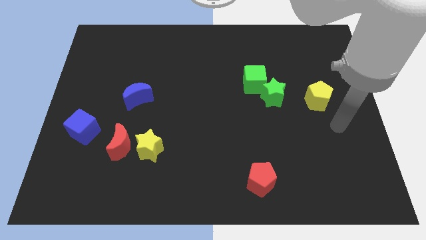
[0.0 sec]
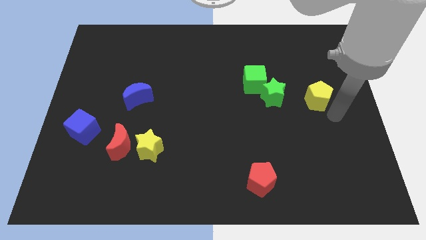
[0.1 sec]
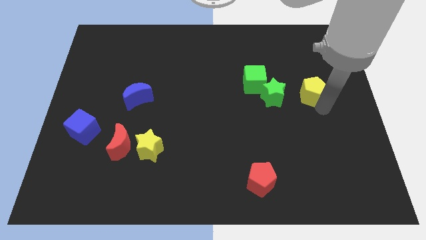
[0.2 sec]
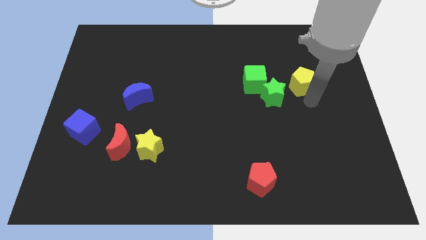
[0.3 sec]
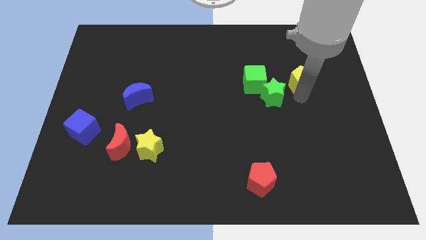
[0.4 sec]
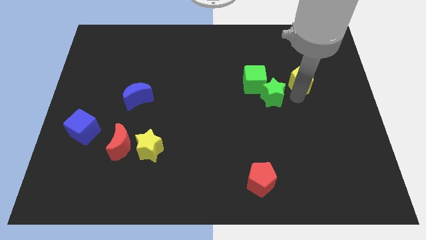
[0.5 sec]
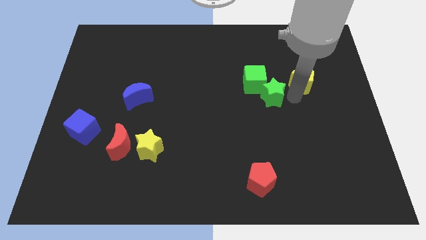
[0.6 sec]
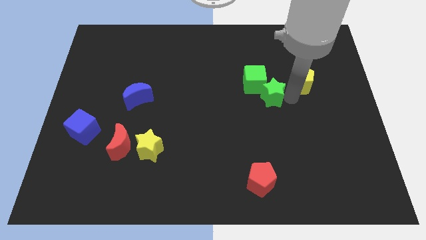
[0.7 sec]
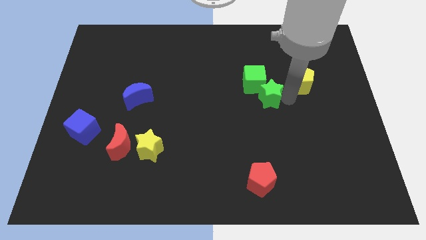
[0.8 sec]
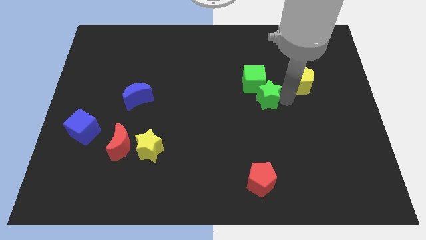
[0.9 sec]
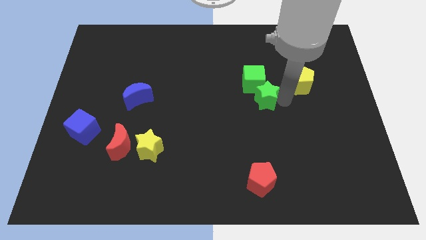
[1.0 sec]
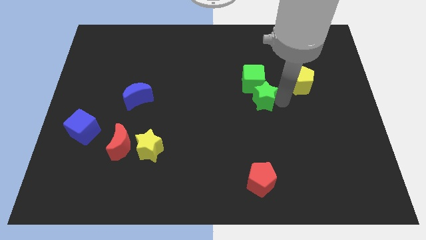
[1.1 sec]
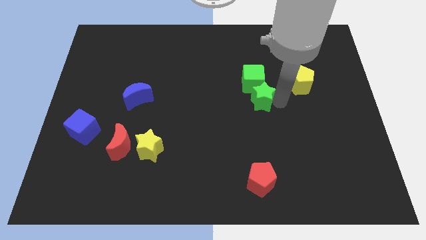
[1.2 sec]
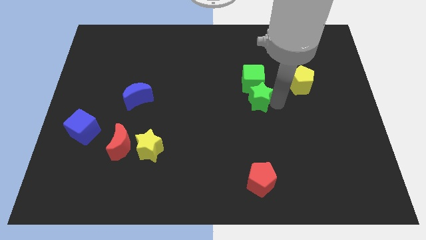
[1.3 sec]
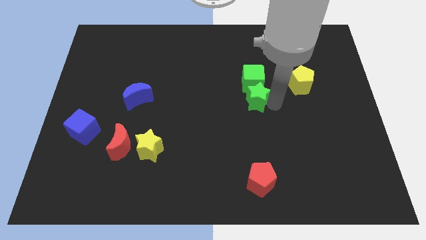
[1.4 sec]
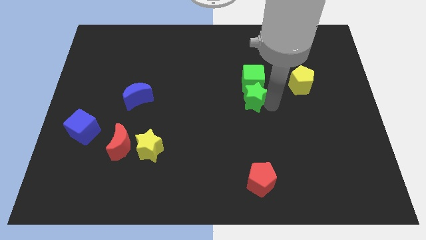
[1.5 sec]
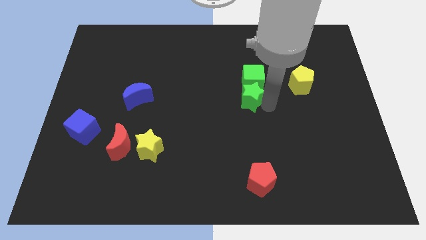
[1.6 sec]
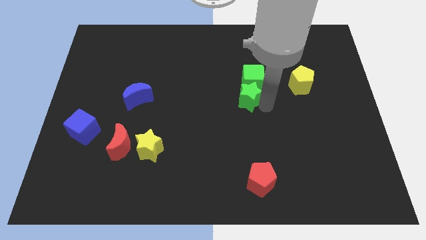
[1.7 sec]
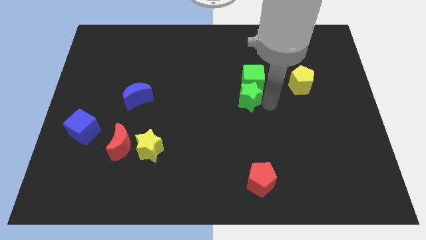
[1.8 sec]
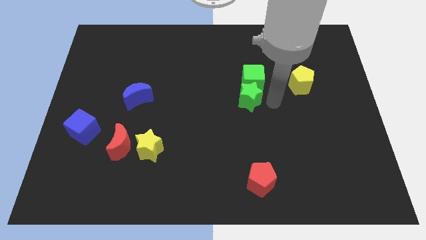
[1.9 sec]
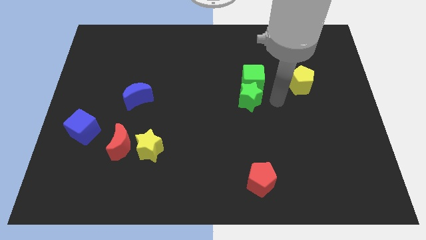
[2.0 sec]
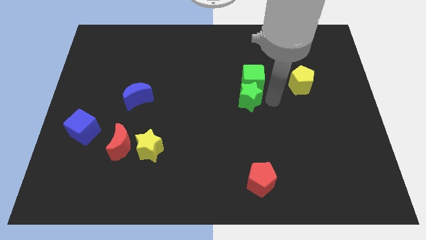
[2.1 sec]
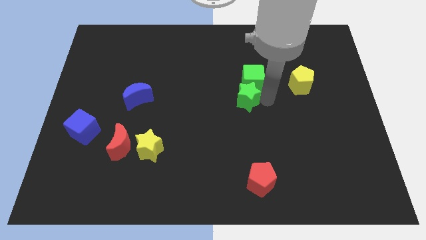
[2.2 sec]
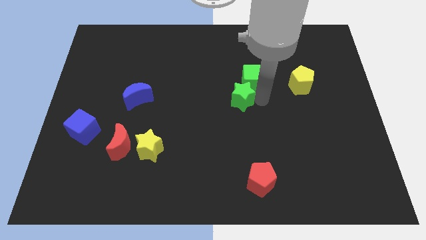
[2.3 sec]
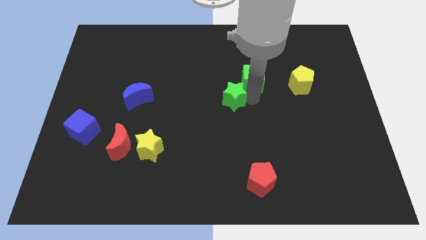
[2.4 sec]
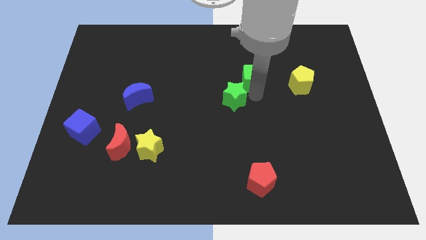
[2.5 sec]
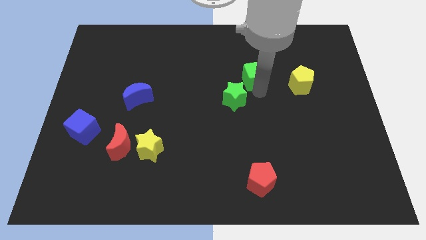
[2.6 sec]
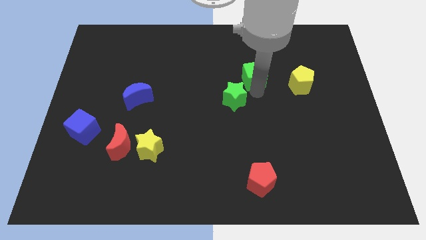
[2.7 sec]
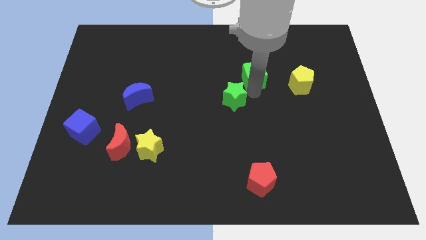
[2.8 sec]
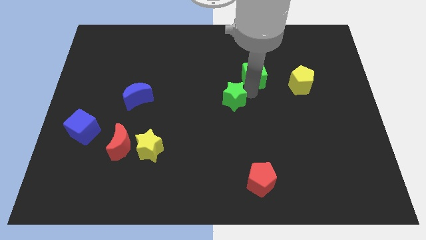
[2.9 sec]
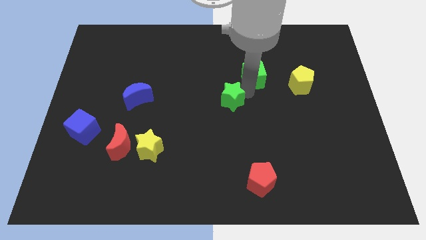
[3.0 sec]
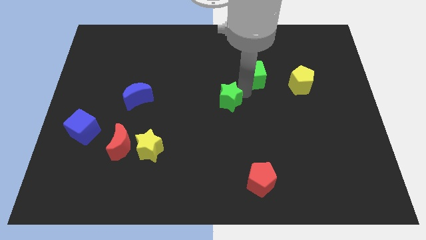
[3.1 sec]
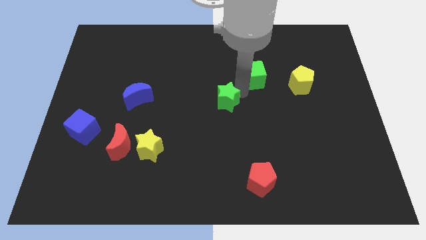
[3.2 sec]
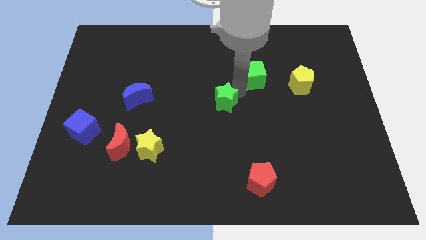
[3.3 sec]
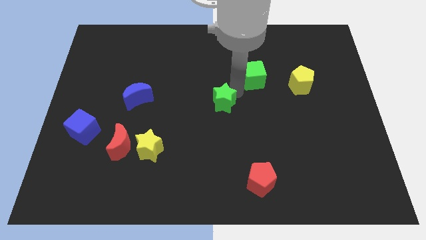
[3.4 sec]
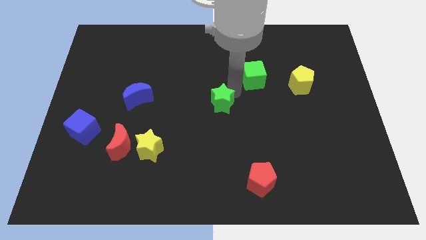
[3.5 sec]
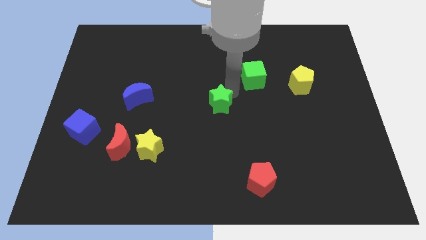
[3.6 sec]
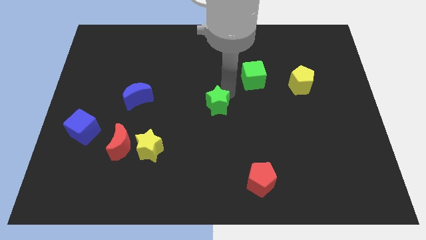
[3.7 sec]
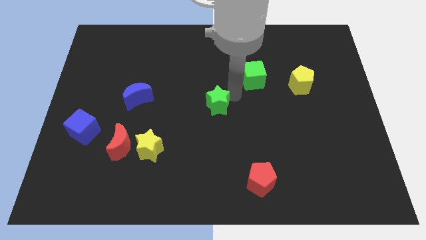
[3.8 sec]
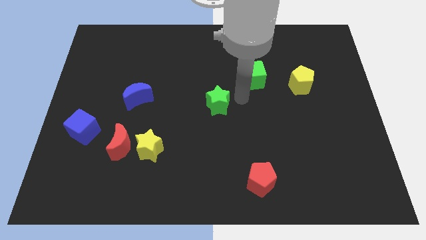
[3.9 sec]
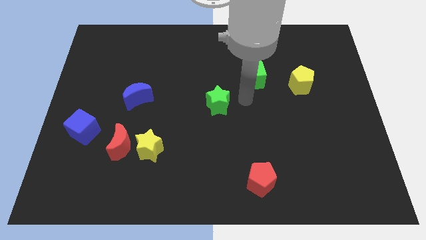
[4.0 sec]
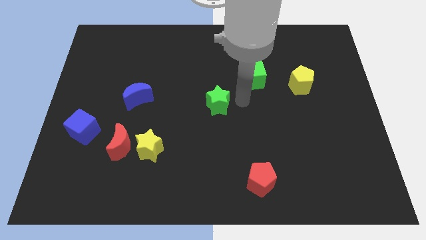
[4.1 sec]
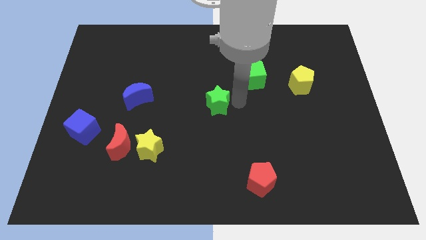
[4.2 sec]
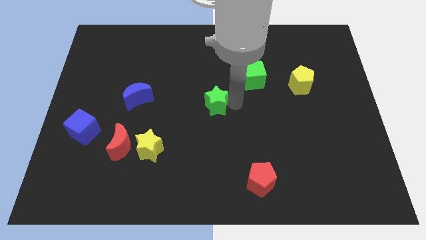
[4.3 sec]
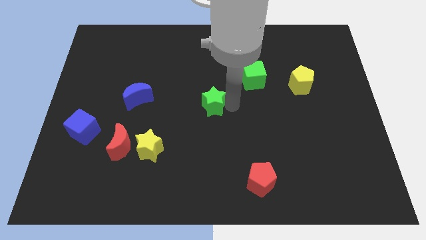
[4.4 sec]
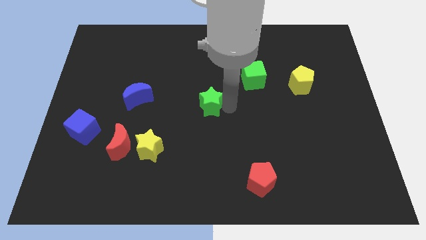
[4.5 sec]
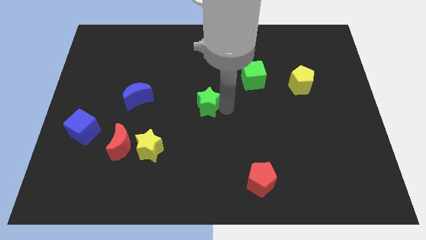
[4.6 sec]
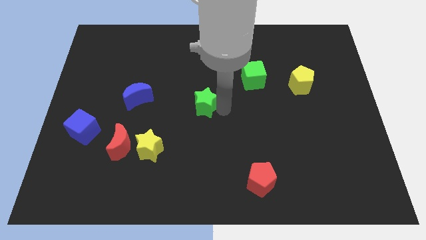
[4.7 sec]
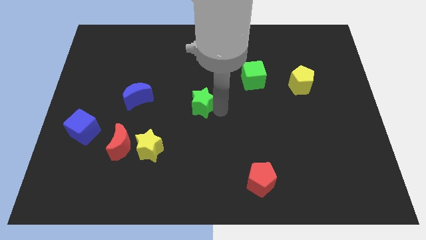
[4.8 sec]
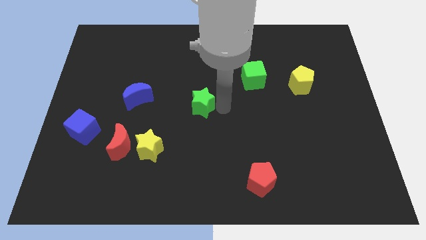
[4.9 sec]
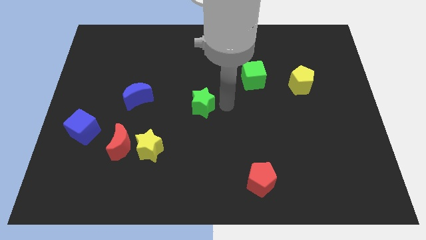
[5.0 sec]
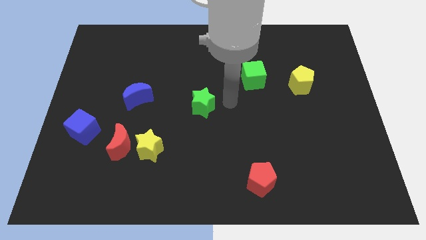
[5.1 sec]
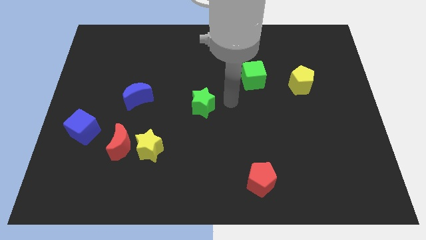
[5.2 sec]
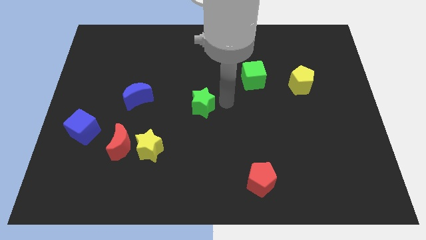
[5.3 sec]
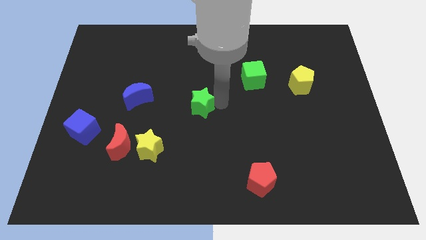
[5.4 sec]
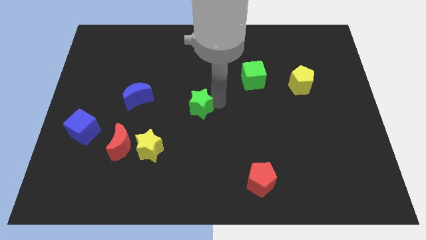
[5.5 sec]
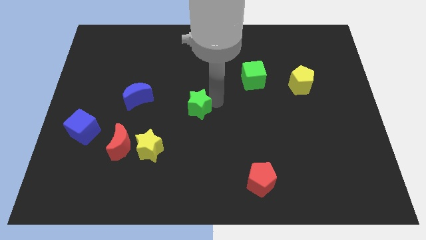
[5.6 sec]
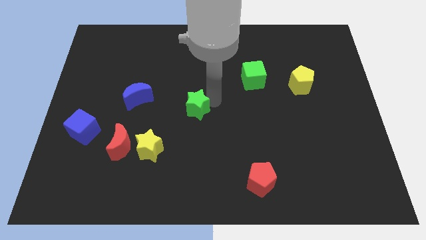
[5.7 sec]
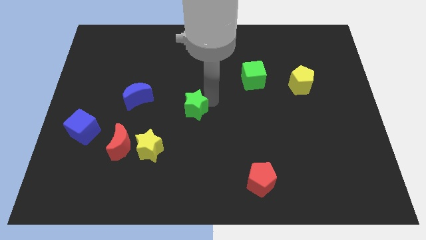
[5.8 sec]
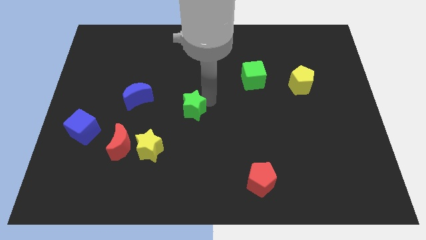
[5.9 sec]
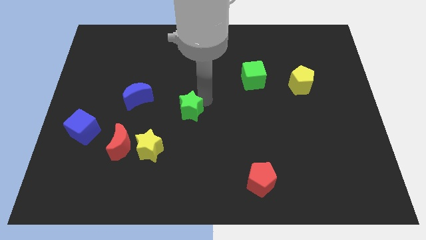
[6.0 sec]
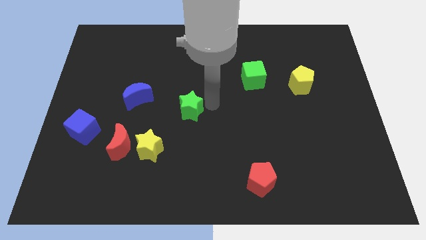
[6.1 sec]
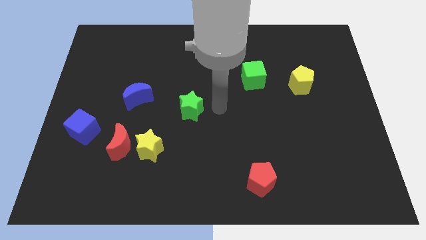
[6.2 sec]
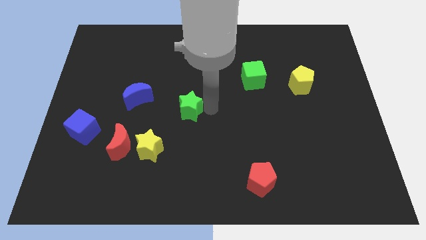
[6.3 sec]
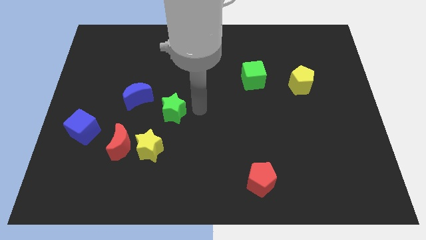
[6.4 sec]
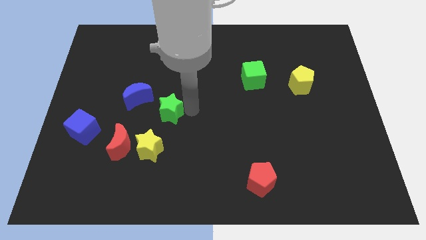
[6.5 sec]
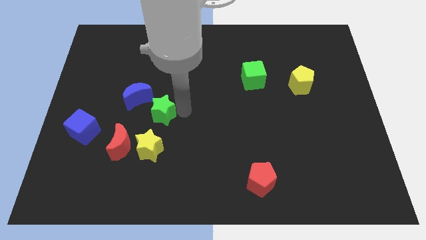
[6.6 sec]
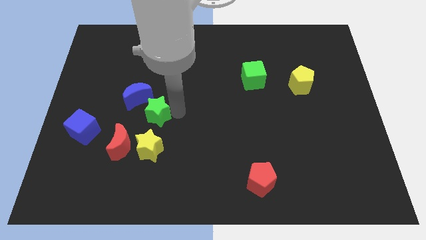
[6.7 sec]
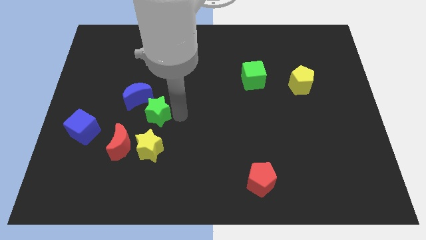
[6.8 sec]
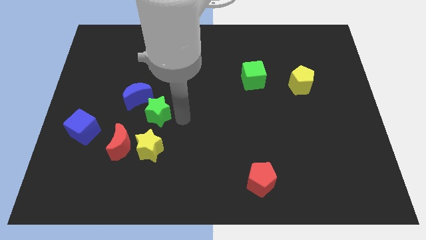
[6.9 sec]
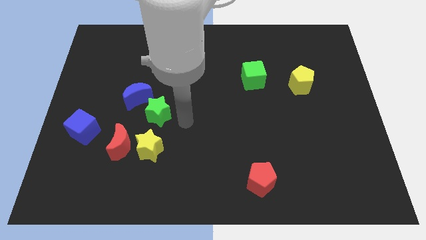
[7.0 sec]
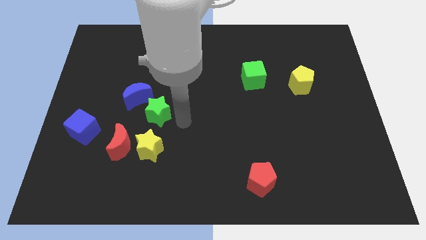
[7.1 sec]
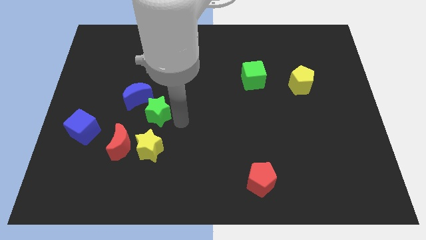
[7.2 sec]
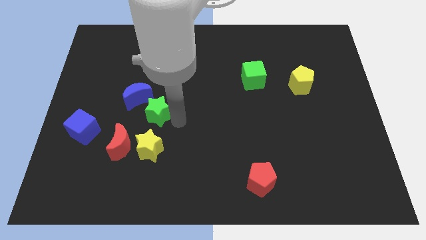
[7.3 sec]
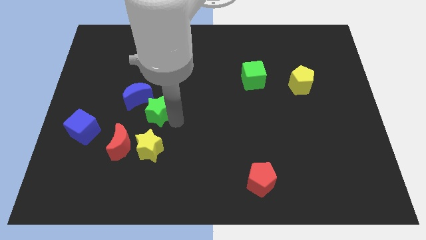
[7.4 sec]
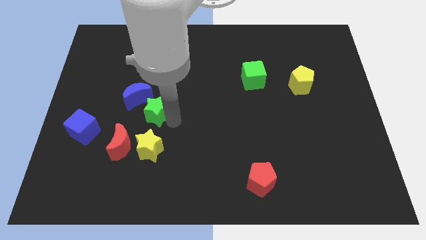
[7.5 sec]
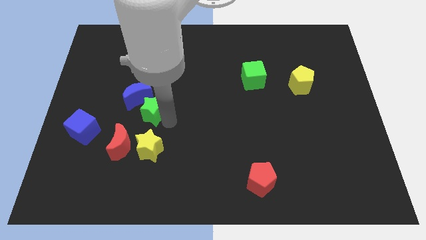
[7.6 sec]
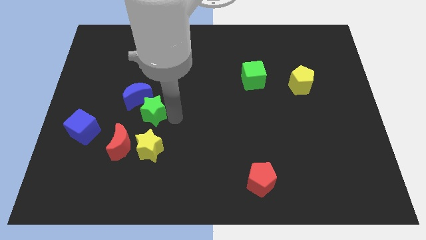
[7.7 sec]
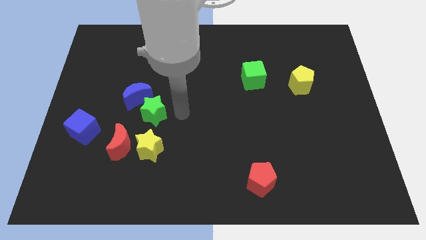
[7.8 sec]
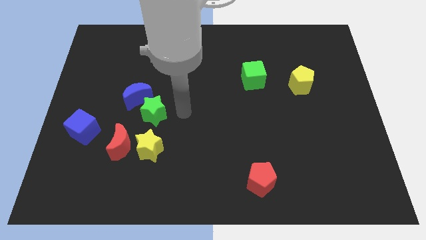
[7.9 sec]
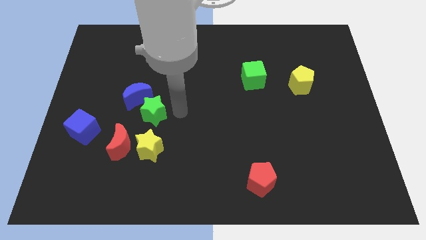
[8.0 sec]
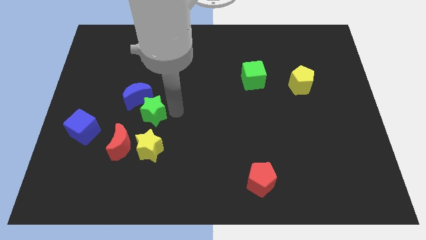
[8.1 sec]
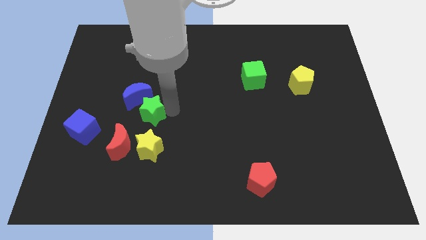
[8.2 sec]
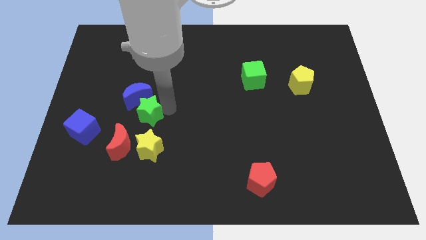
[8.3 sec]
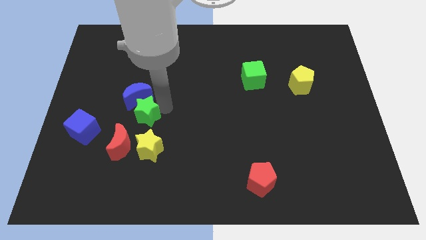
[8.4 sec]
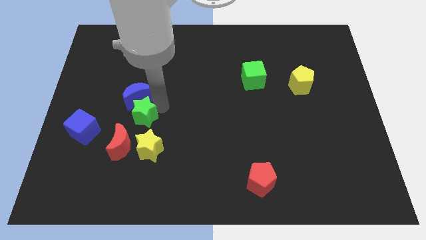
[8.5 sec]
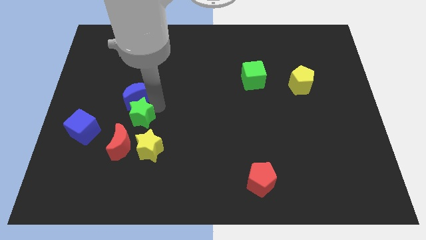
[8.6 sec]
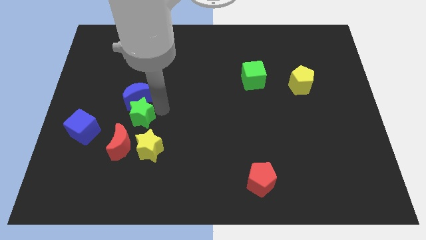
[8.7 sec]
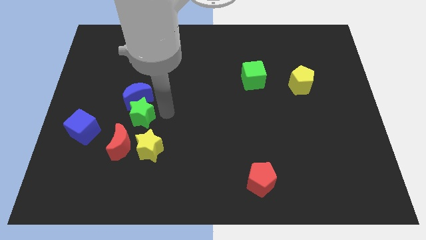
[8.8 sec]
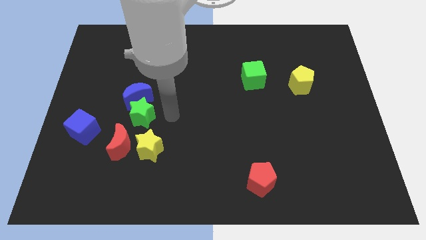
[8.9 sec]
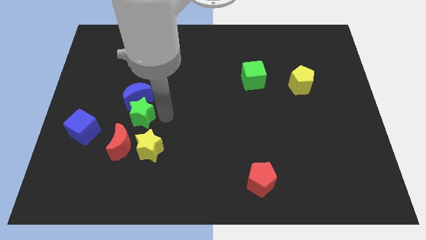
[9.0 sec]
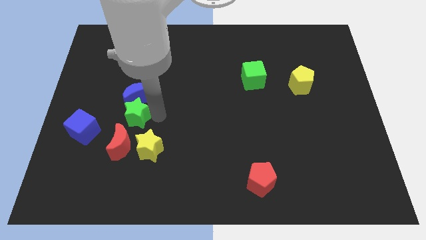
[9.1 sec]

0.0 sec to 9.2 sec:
put the green star to the bottom left side of the blue moon
